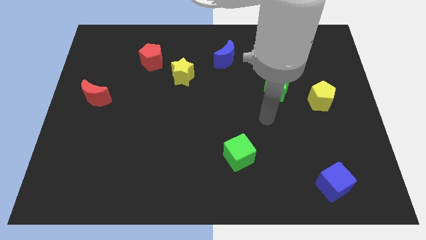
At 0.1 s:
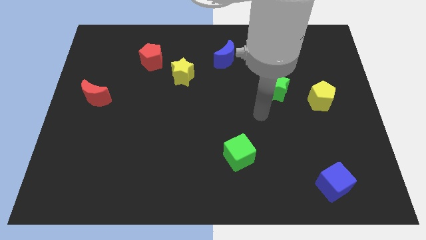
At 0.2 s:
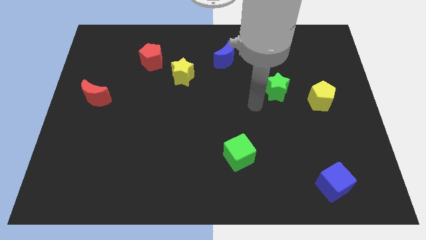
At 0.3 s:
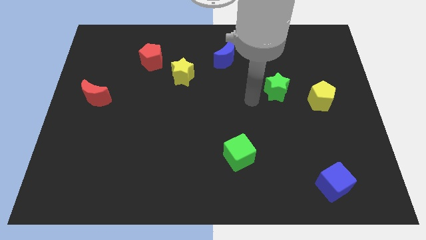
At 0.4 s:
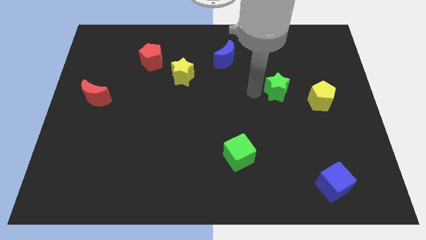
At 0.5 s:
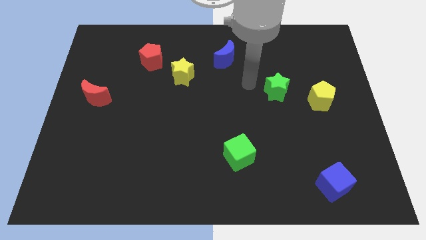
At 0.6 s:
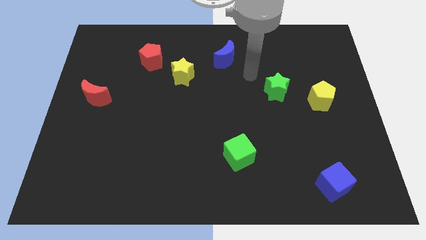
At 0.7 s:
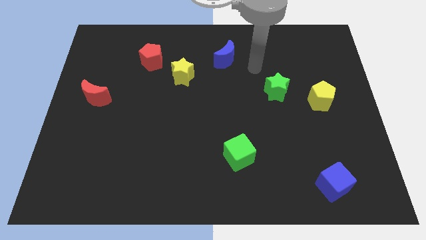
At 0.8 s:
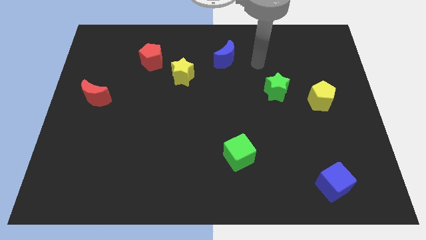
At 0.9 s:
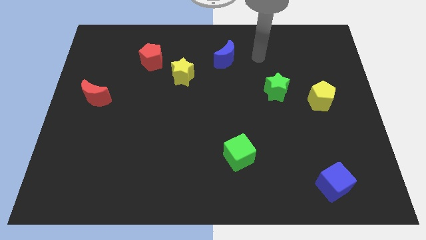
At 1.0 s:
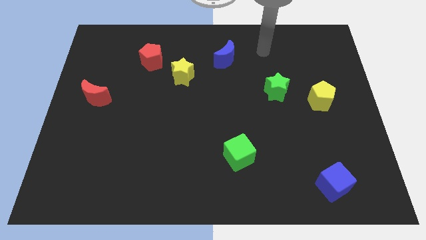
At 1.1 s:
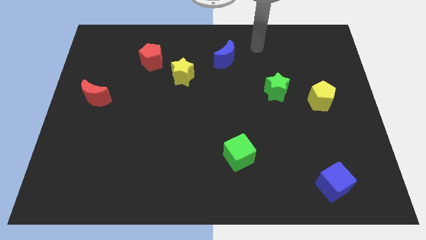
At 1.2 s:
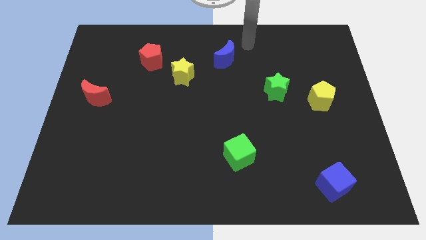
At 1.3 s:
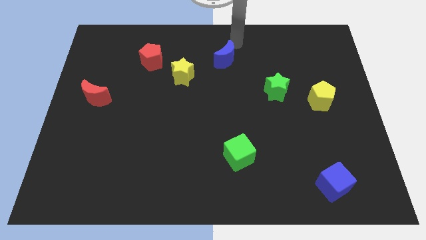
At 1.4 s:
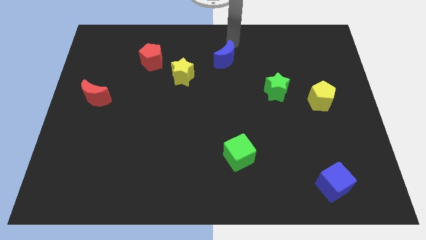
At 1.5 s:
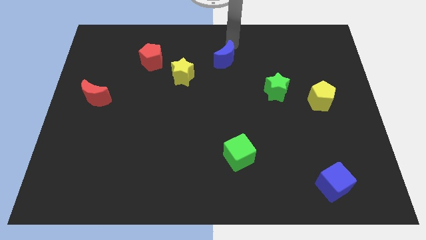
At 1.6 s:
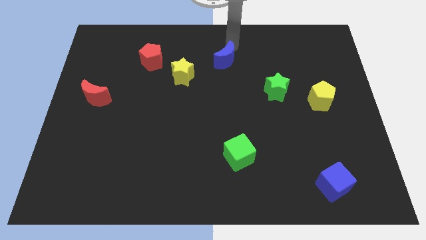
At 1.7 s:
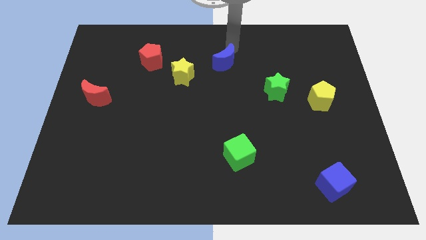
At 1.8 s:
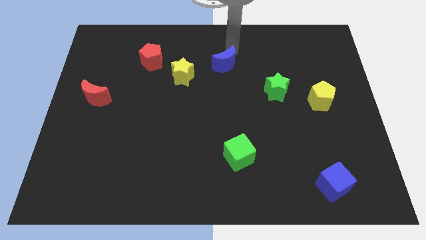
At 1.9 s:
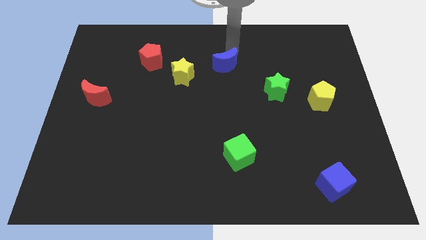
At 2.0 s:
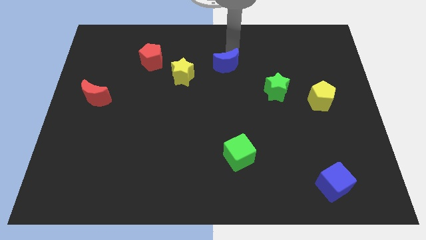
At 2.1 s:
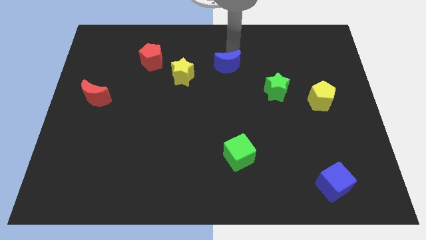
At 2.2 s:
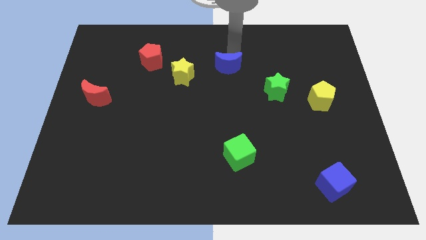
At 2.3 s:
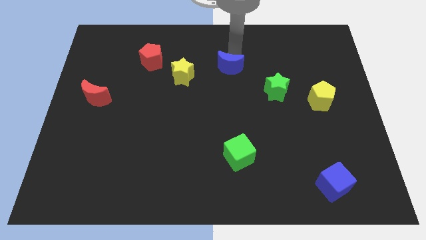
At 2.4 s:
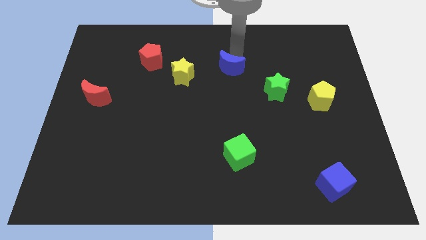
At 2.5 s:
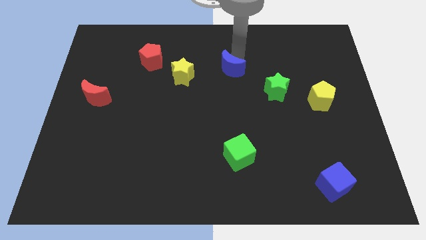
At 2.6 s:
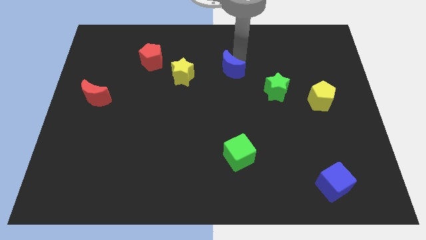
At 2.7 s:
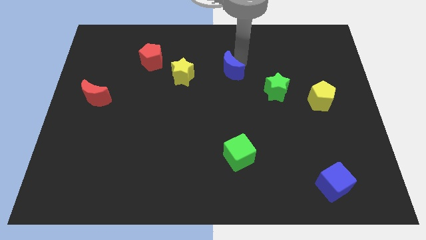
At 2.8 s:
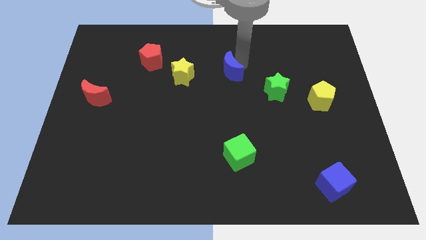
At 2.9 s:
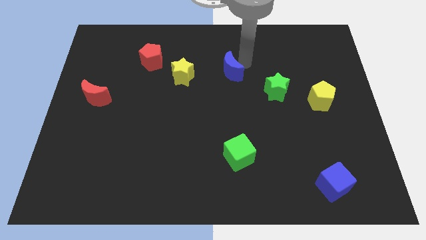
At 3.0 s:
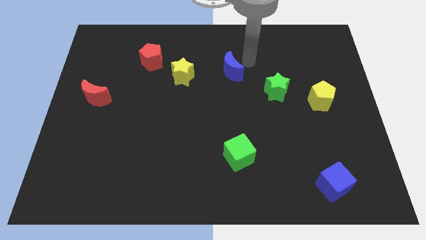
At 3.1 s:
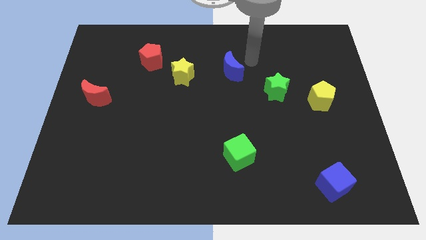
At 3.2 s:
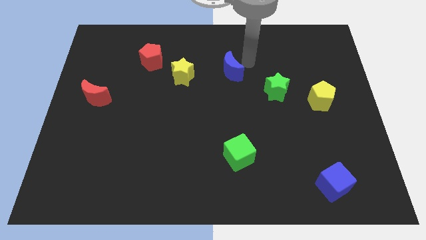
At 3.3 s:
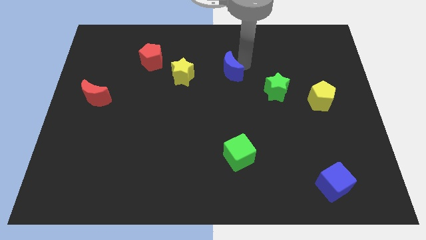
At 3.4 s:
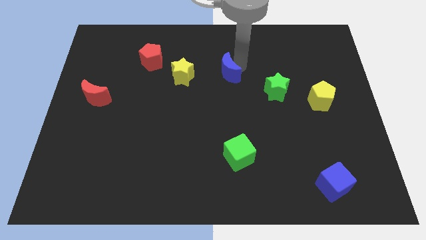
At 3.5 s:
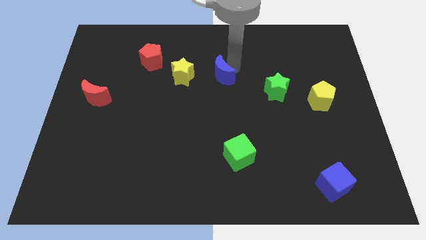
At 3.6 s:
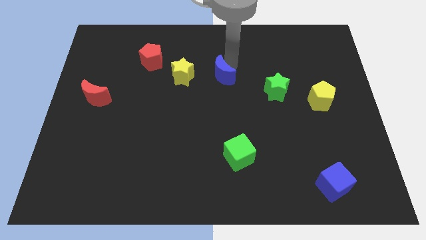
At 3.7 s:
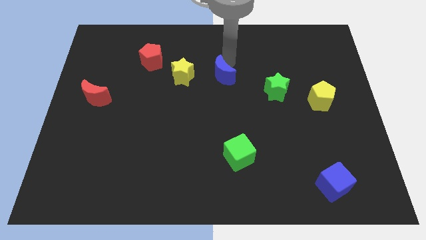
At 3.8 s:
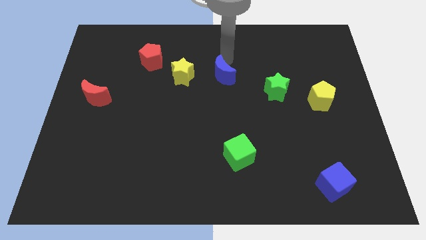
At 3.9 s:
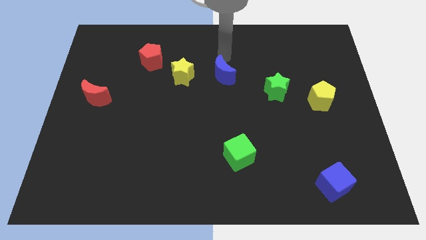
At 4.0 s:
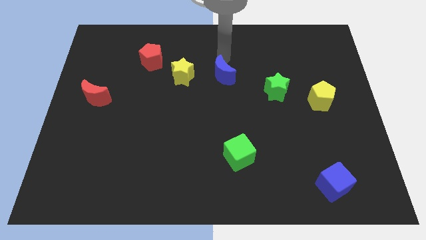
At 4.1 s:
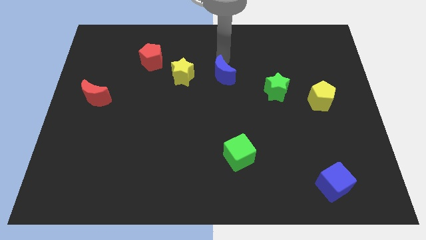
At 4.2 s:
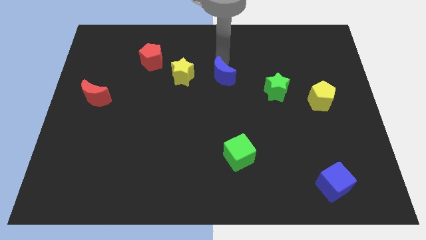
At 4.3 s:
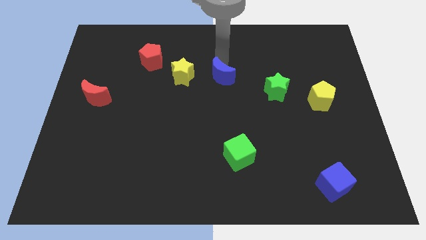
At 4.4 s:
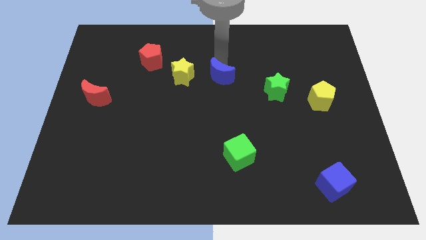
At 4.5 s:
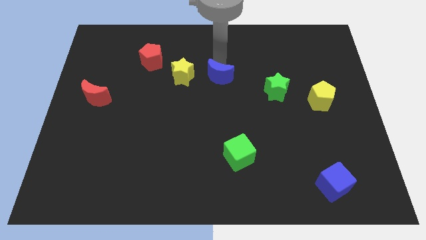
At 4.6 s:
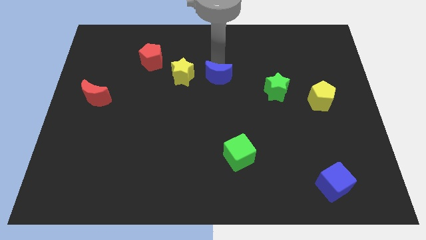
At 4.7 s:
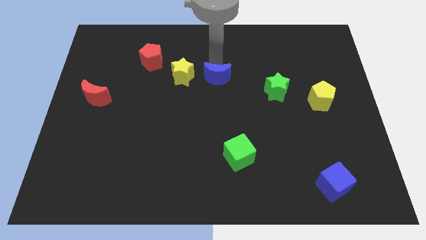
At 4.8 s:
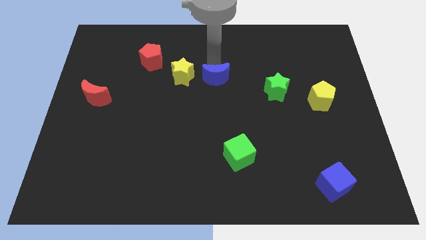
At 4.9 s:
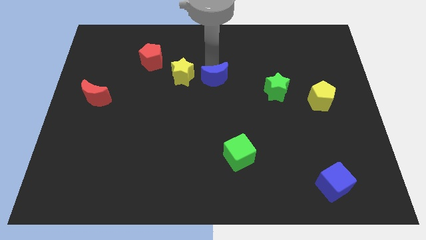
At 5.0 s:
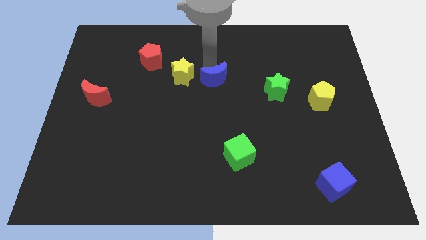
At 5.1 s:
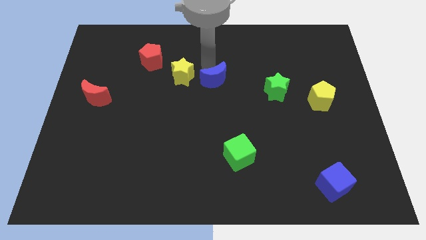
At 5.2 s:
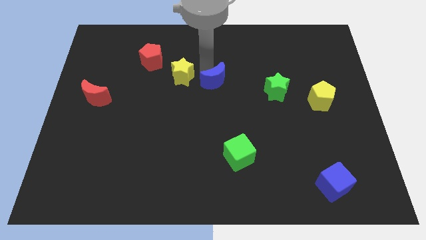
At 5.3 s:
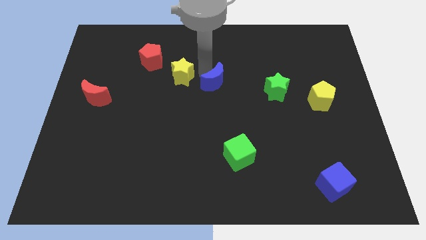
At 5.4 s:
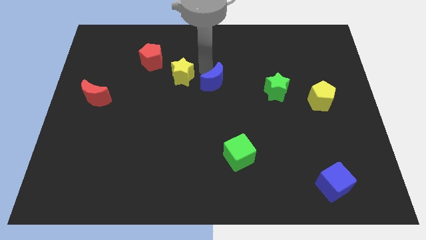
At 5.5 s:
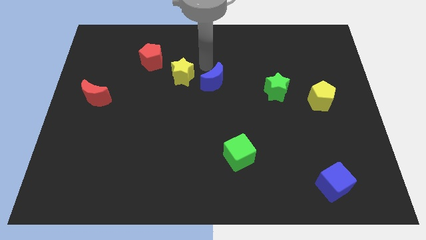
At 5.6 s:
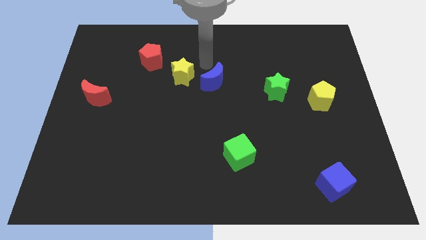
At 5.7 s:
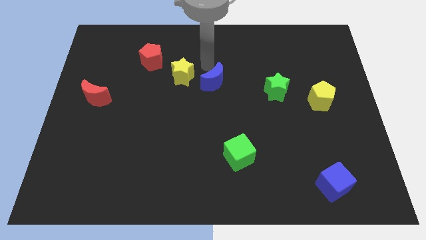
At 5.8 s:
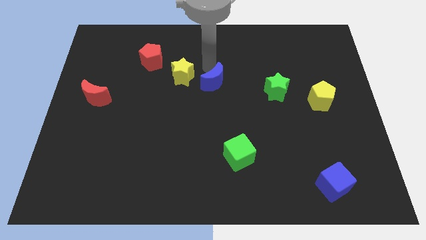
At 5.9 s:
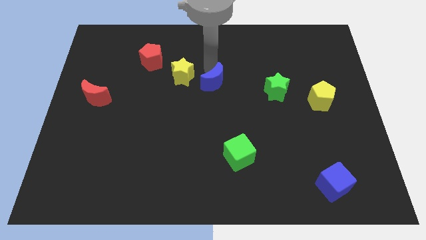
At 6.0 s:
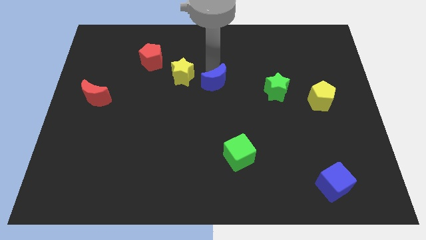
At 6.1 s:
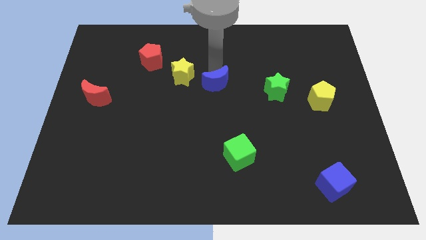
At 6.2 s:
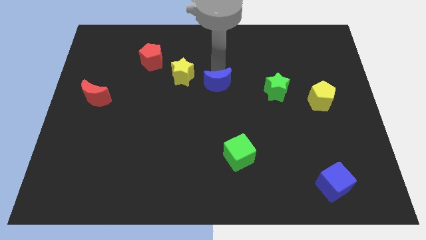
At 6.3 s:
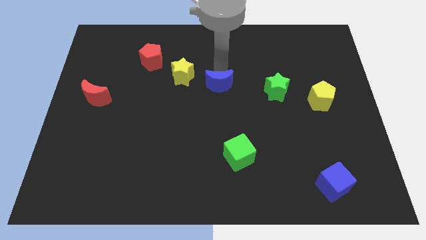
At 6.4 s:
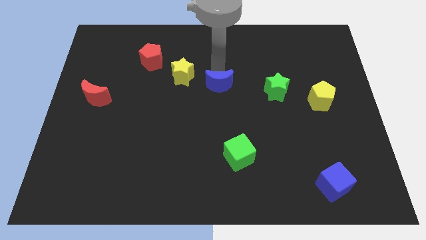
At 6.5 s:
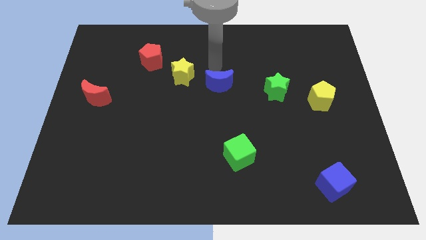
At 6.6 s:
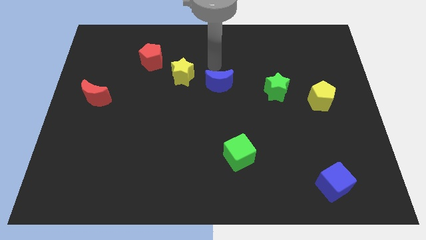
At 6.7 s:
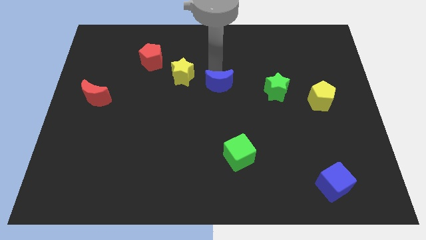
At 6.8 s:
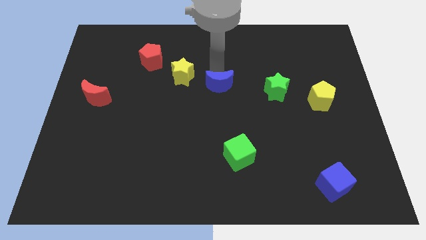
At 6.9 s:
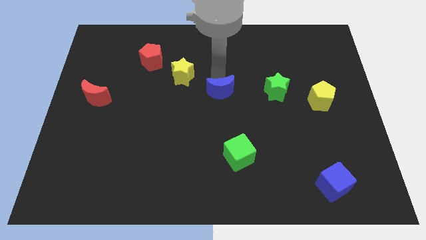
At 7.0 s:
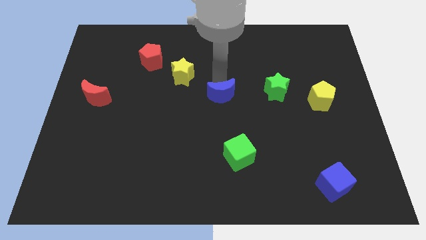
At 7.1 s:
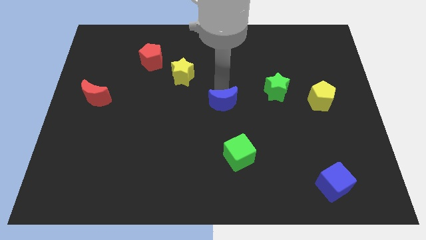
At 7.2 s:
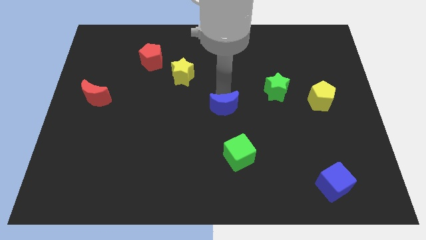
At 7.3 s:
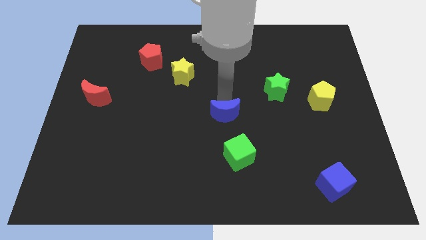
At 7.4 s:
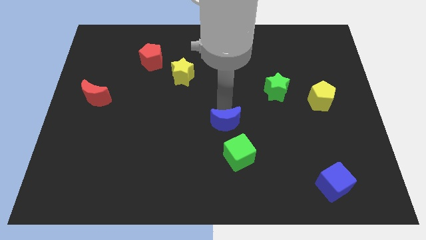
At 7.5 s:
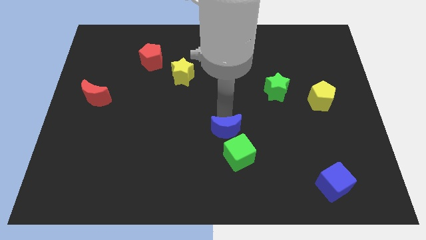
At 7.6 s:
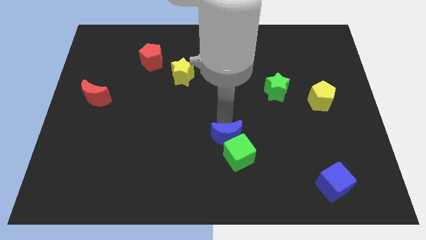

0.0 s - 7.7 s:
put the blue moon towards the green cube
